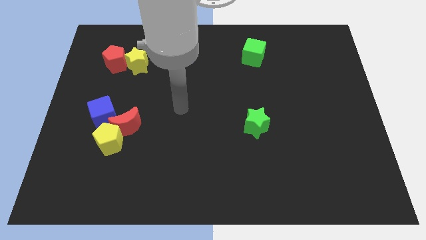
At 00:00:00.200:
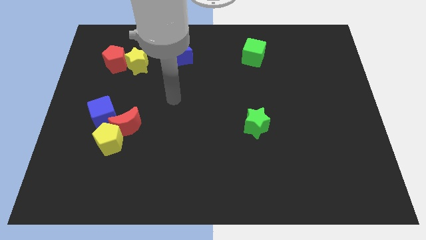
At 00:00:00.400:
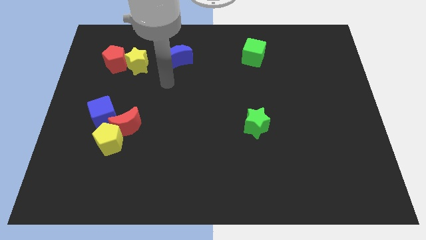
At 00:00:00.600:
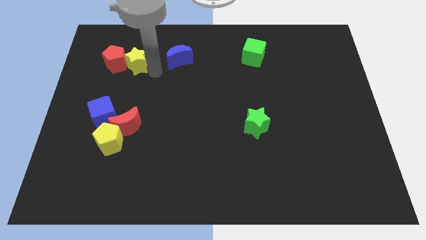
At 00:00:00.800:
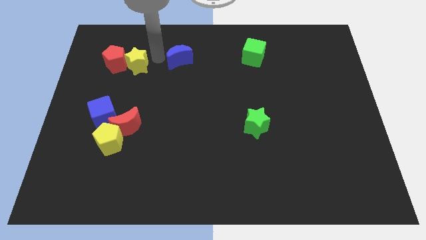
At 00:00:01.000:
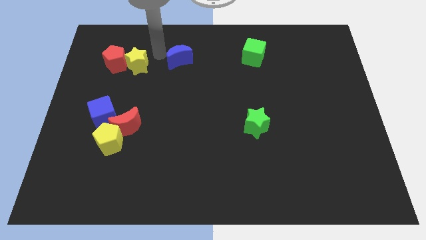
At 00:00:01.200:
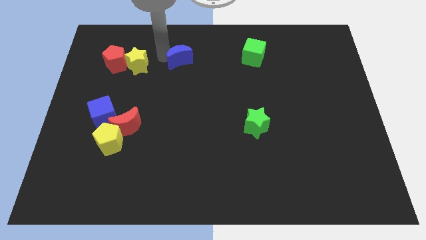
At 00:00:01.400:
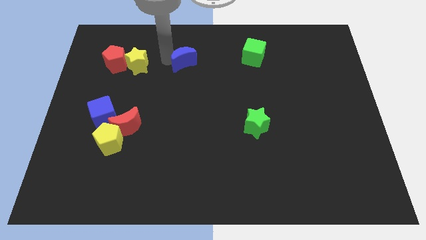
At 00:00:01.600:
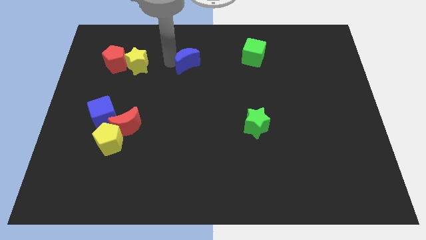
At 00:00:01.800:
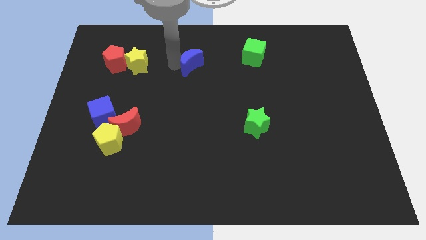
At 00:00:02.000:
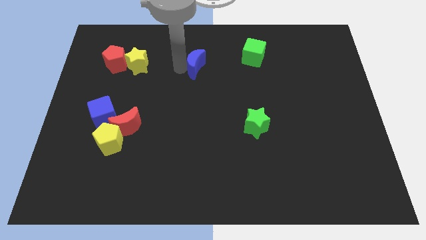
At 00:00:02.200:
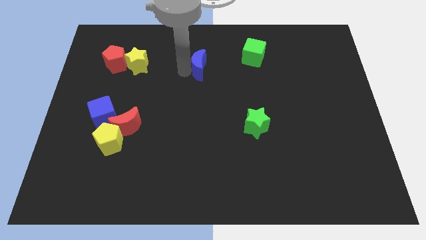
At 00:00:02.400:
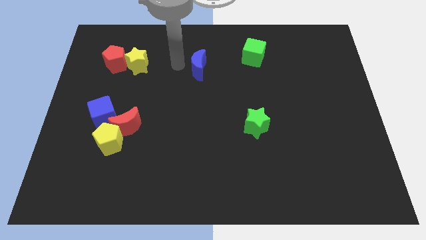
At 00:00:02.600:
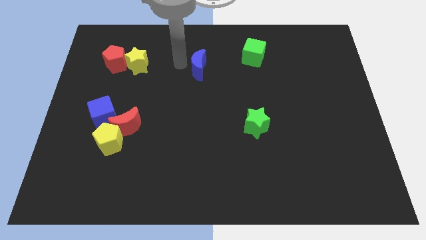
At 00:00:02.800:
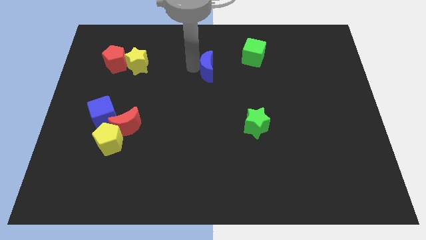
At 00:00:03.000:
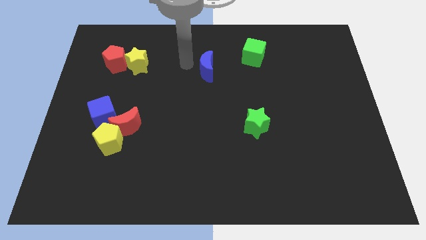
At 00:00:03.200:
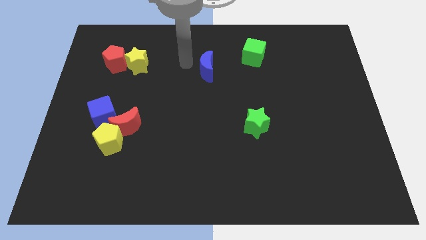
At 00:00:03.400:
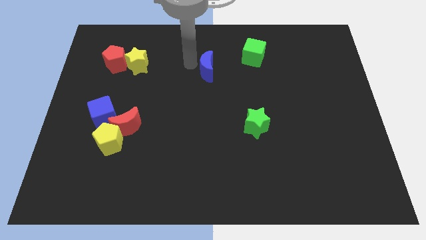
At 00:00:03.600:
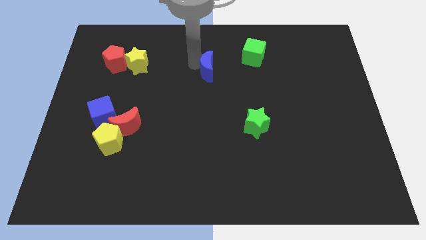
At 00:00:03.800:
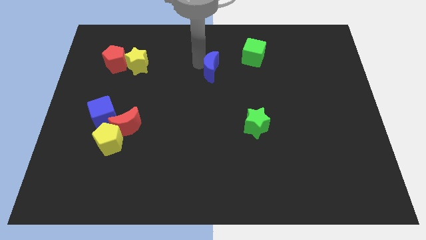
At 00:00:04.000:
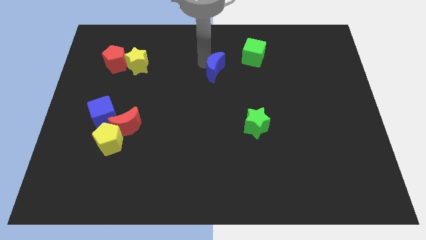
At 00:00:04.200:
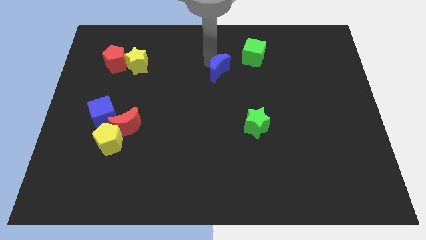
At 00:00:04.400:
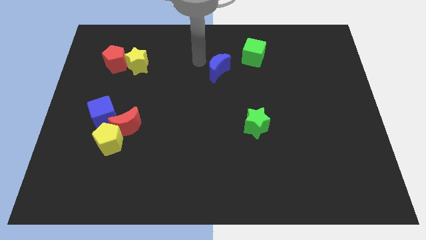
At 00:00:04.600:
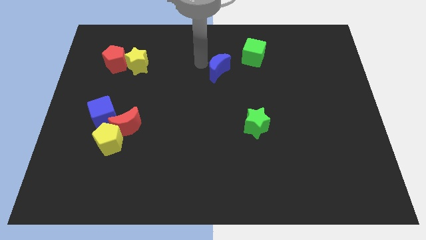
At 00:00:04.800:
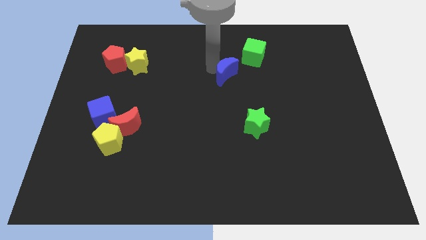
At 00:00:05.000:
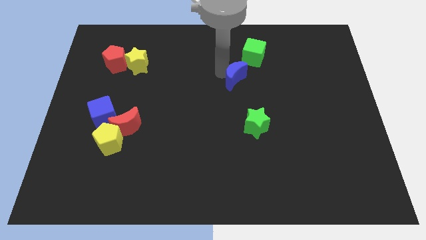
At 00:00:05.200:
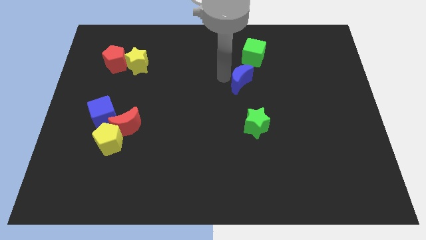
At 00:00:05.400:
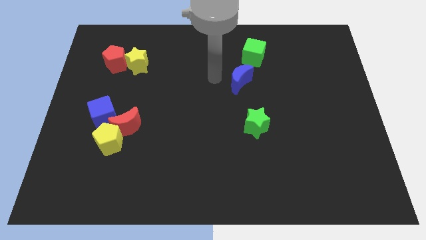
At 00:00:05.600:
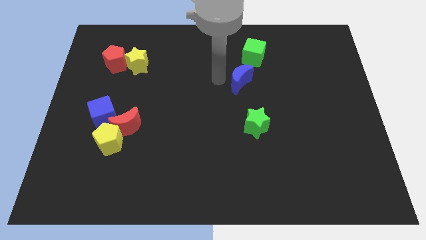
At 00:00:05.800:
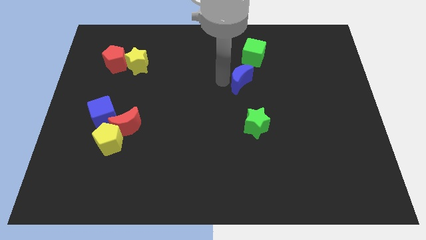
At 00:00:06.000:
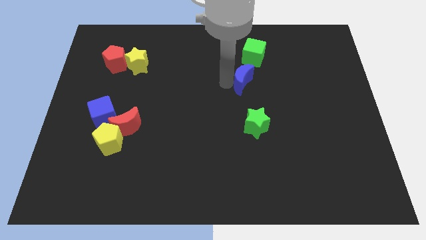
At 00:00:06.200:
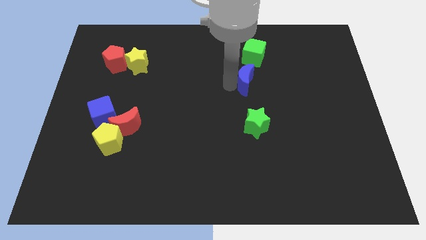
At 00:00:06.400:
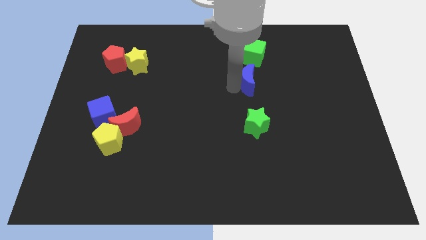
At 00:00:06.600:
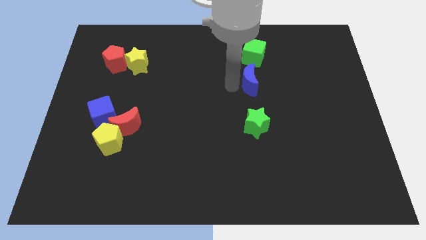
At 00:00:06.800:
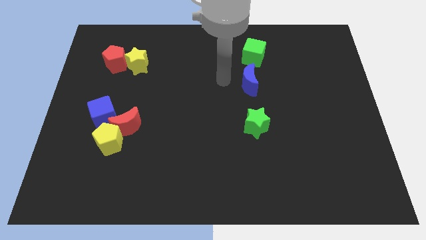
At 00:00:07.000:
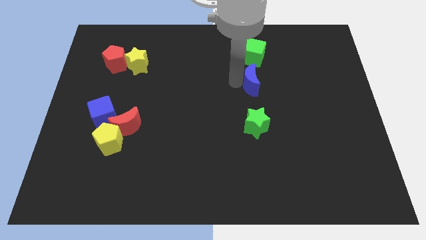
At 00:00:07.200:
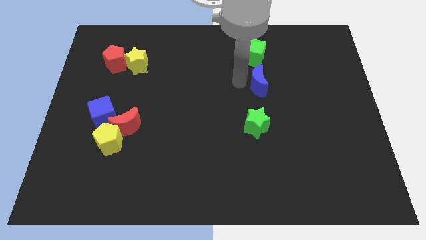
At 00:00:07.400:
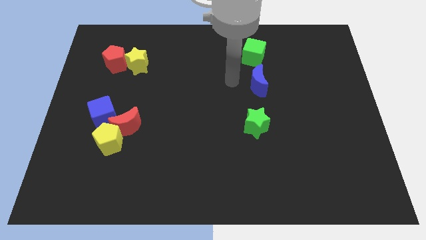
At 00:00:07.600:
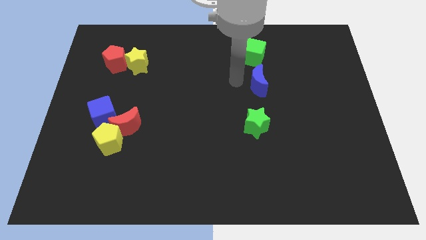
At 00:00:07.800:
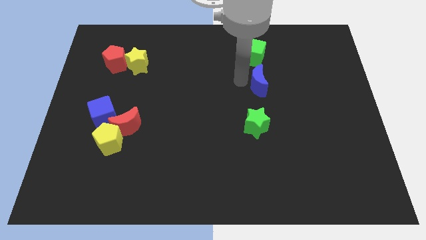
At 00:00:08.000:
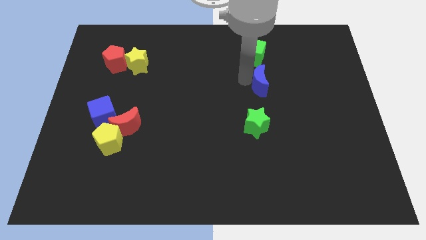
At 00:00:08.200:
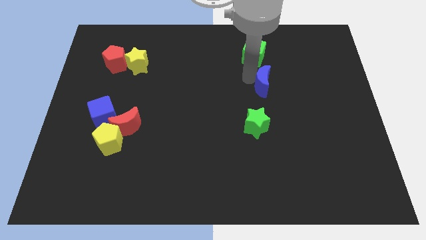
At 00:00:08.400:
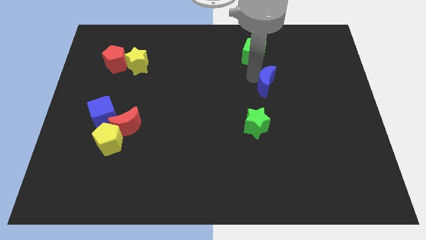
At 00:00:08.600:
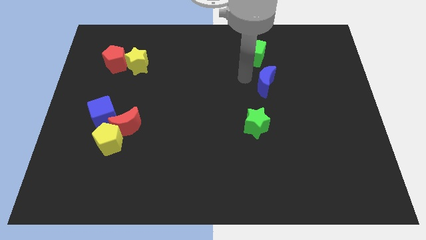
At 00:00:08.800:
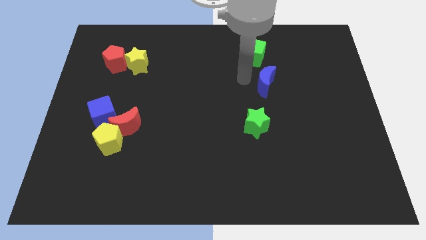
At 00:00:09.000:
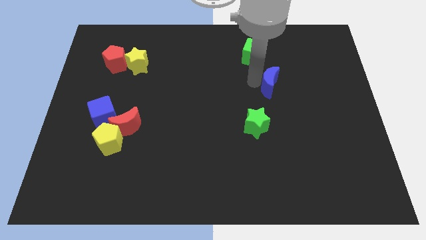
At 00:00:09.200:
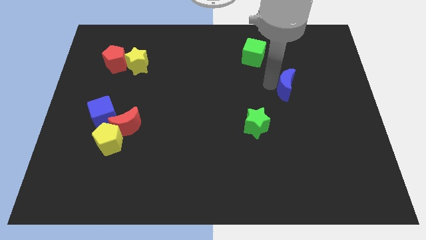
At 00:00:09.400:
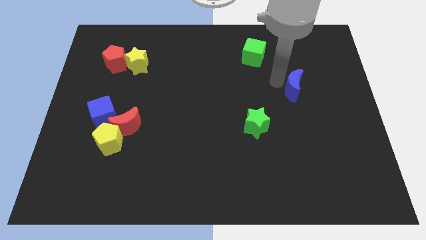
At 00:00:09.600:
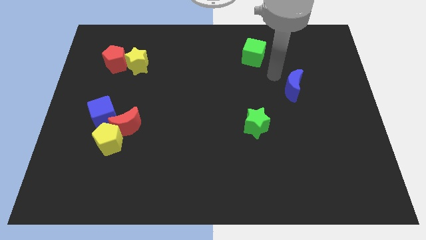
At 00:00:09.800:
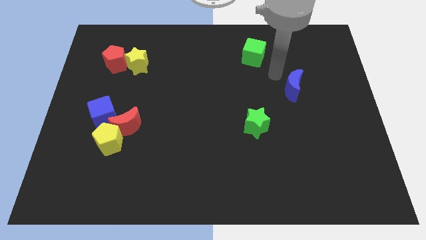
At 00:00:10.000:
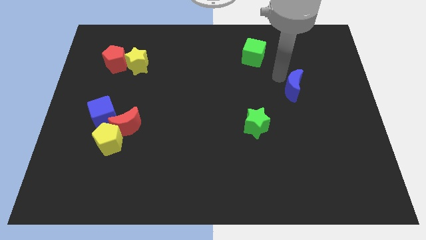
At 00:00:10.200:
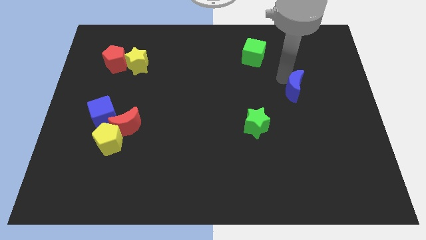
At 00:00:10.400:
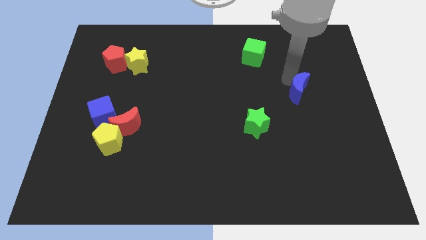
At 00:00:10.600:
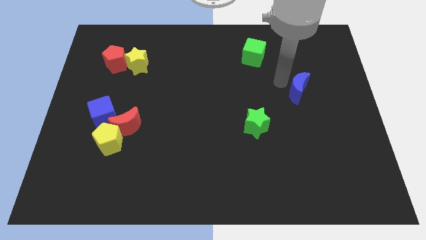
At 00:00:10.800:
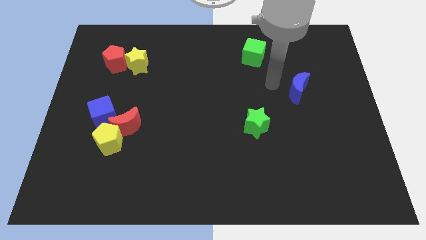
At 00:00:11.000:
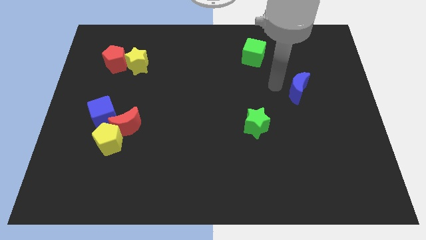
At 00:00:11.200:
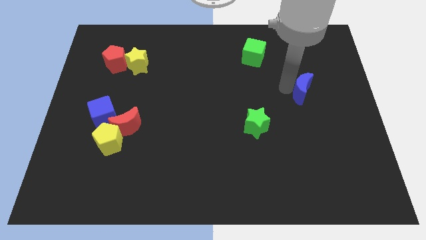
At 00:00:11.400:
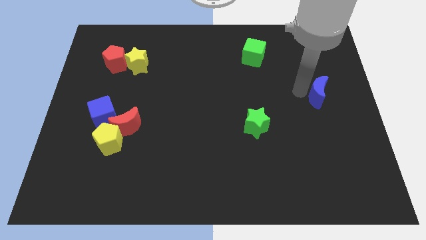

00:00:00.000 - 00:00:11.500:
move the blue moon to the right side of the board

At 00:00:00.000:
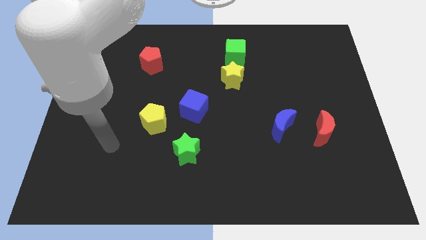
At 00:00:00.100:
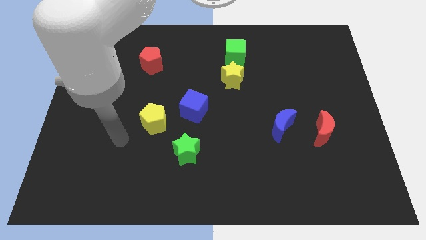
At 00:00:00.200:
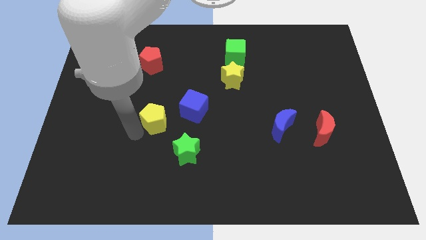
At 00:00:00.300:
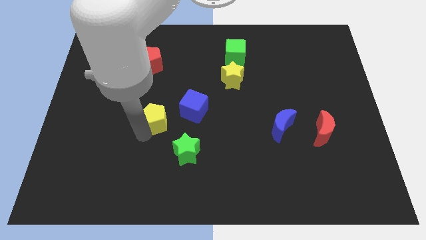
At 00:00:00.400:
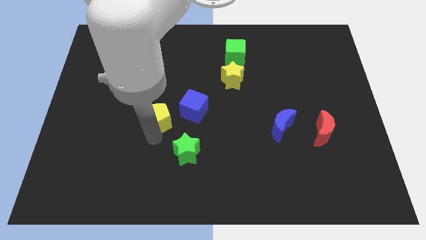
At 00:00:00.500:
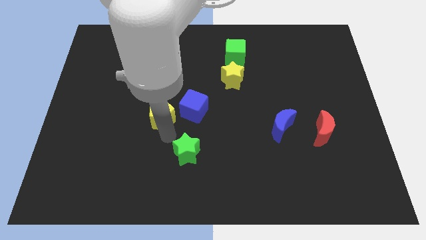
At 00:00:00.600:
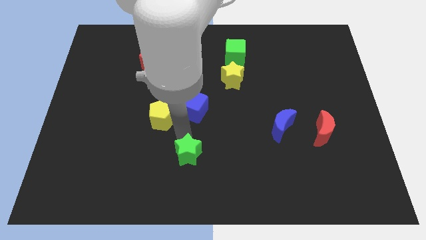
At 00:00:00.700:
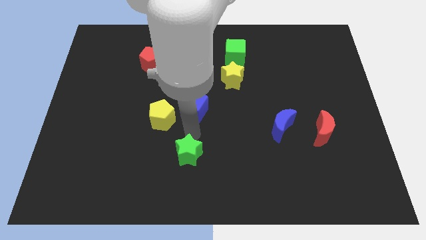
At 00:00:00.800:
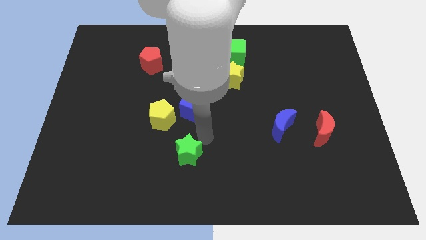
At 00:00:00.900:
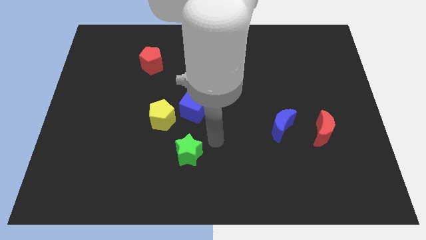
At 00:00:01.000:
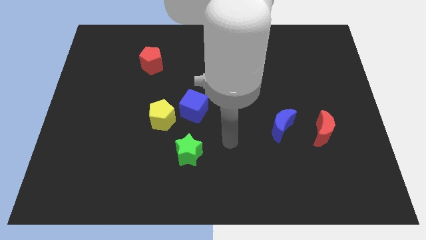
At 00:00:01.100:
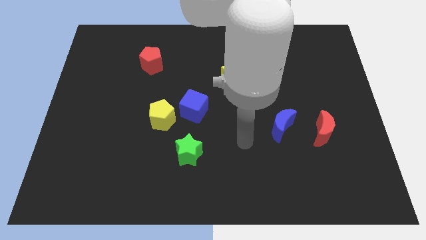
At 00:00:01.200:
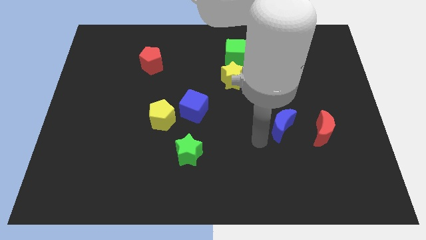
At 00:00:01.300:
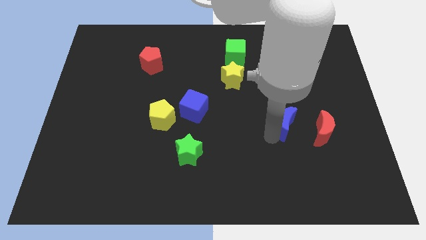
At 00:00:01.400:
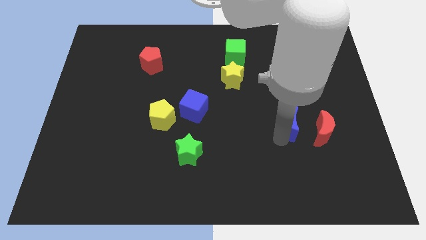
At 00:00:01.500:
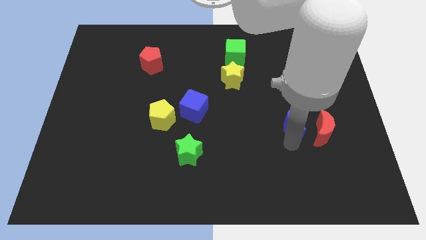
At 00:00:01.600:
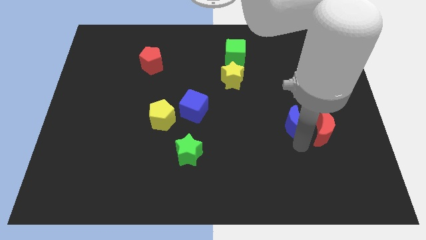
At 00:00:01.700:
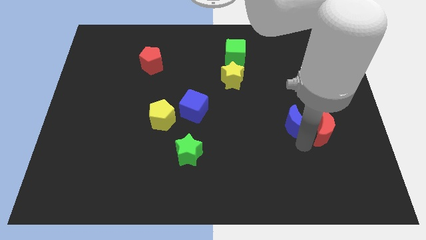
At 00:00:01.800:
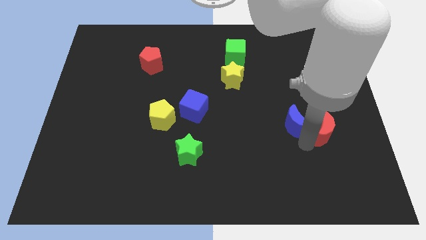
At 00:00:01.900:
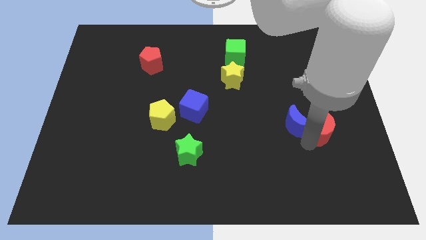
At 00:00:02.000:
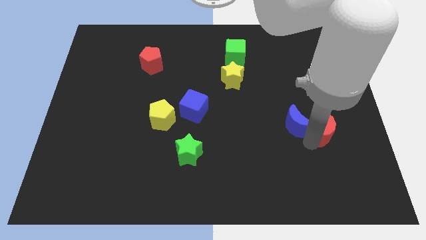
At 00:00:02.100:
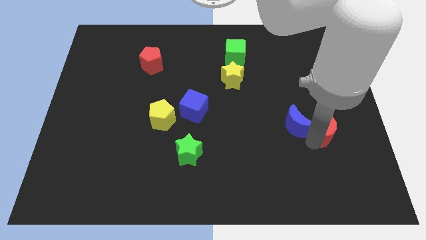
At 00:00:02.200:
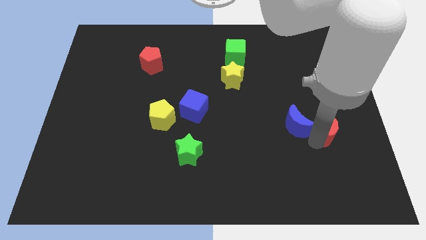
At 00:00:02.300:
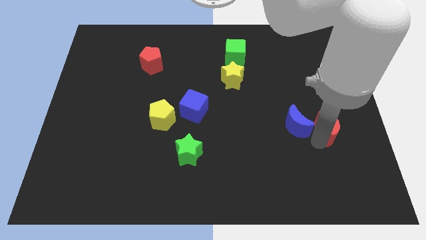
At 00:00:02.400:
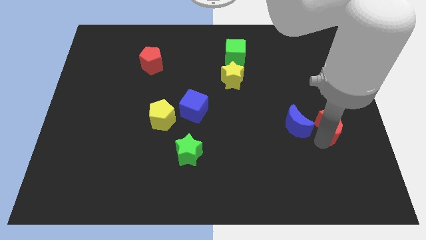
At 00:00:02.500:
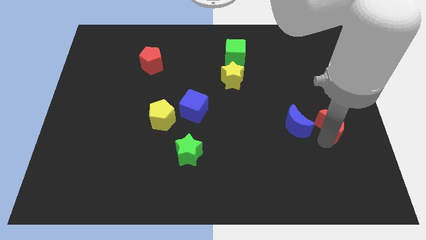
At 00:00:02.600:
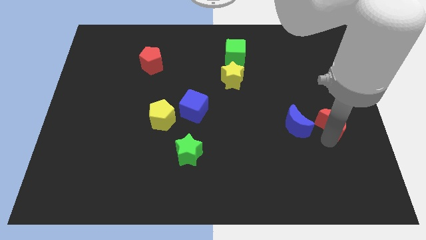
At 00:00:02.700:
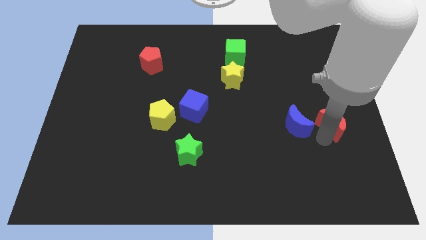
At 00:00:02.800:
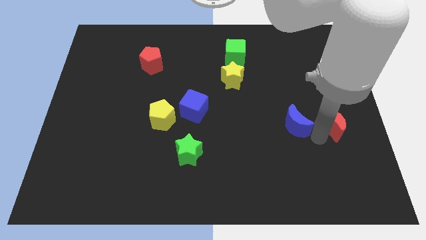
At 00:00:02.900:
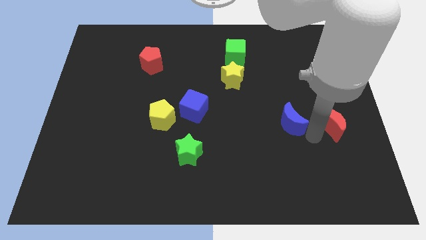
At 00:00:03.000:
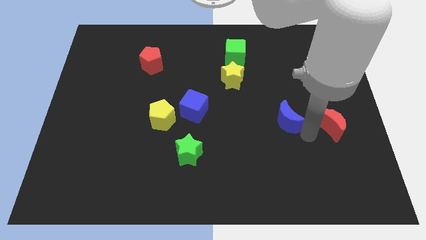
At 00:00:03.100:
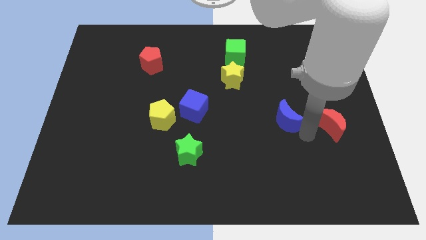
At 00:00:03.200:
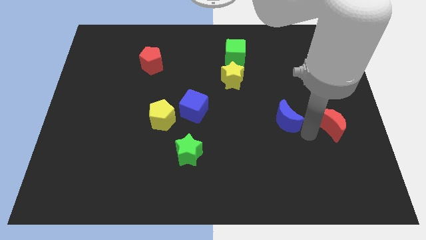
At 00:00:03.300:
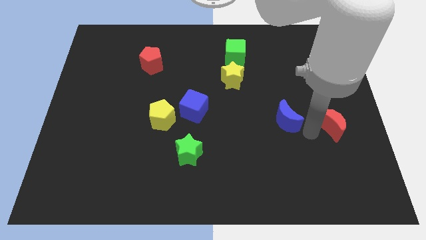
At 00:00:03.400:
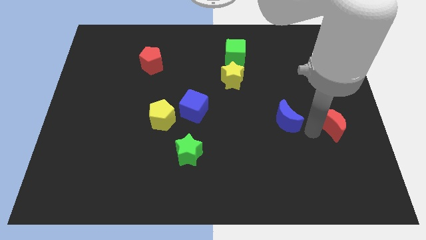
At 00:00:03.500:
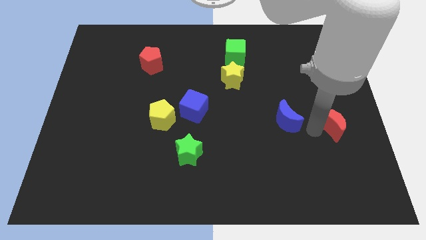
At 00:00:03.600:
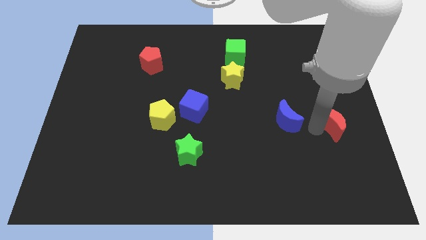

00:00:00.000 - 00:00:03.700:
put the red moon to the right side of the board
